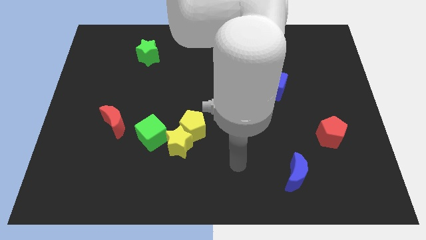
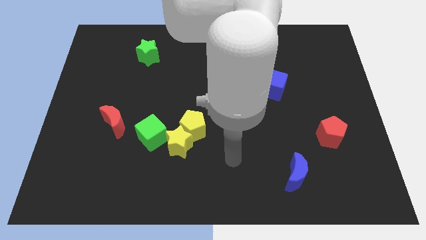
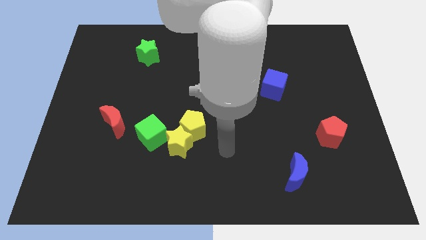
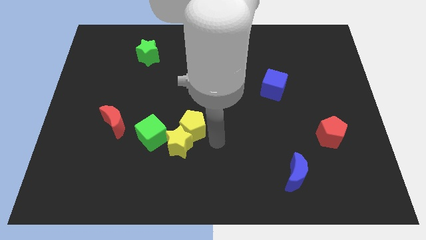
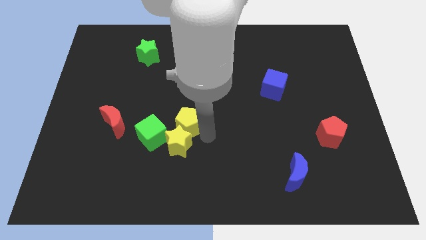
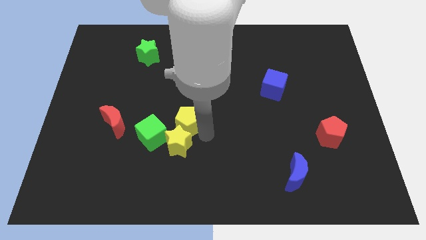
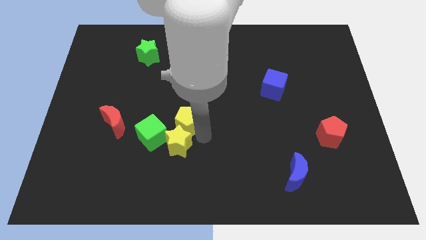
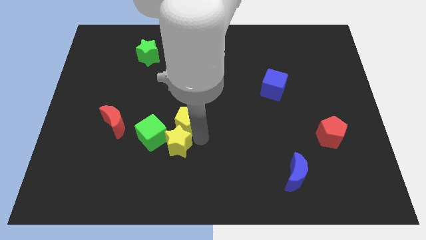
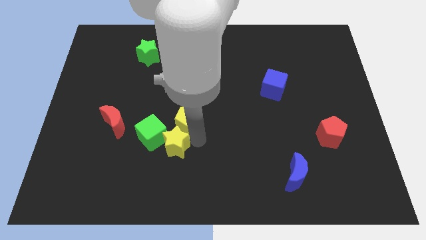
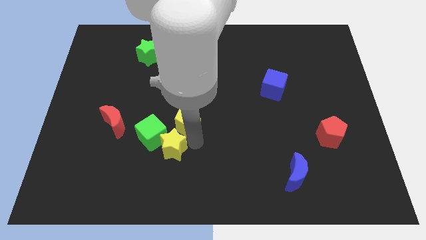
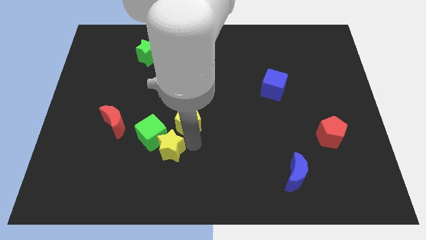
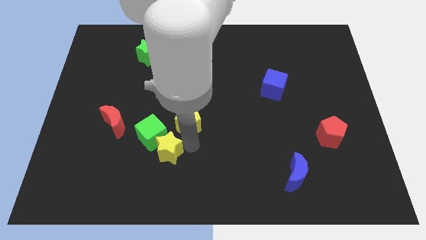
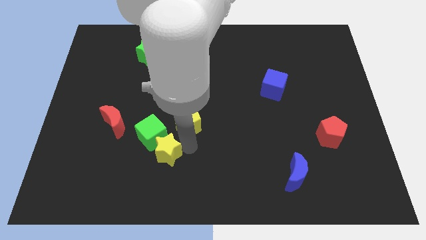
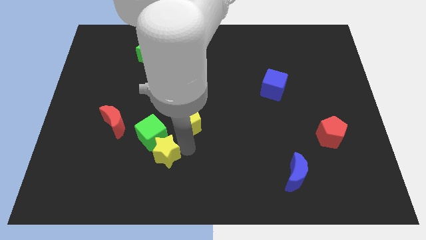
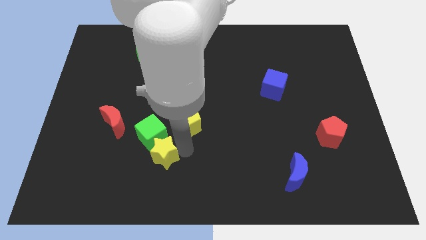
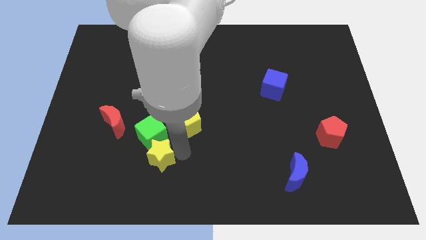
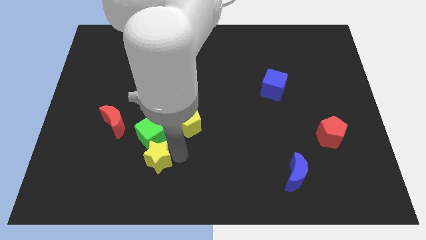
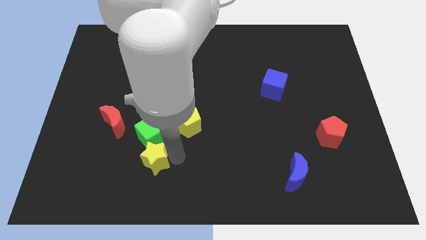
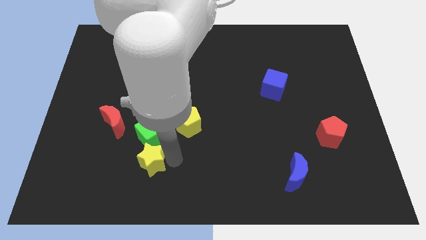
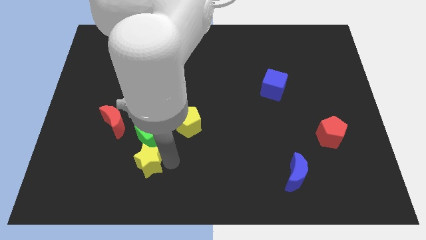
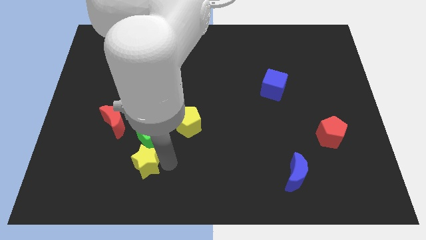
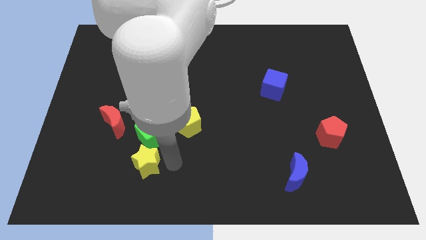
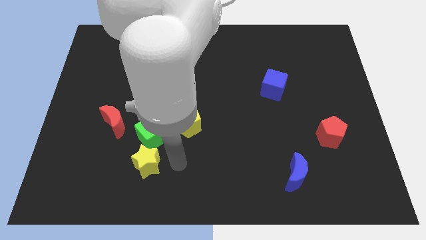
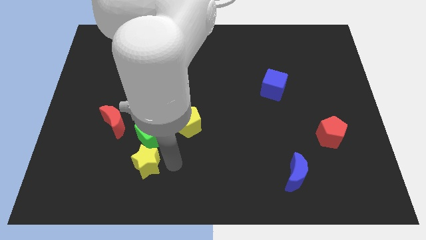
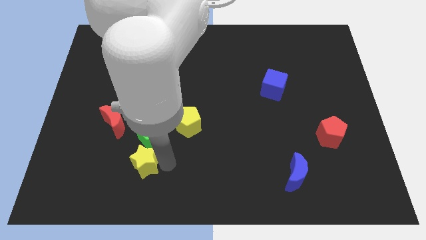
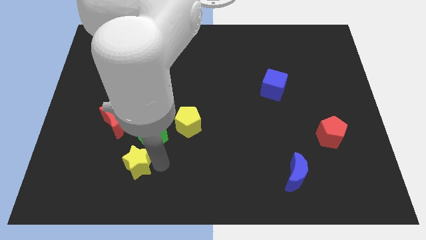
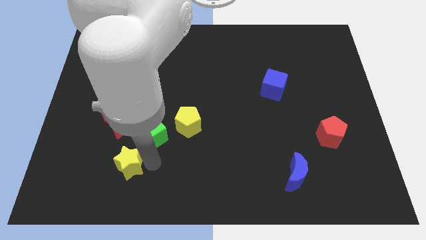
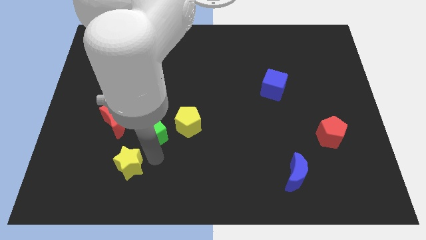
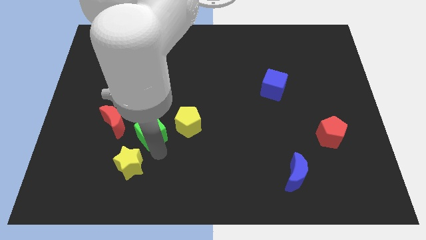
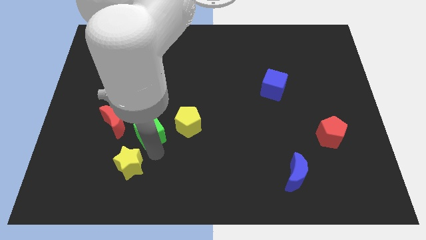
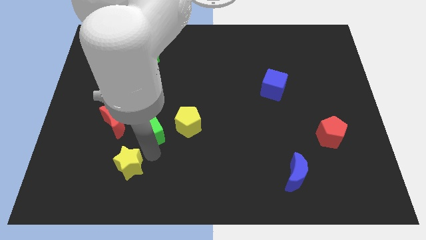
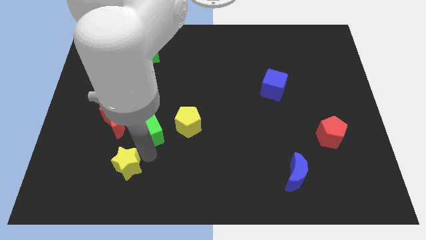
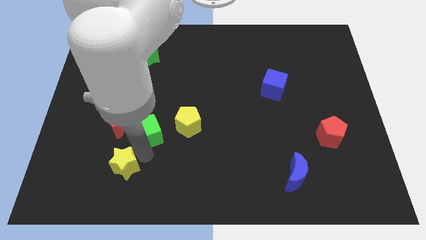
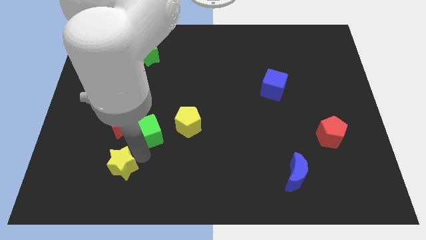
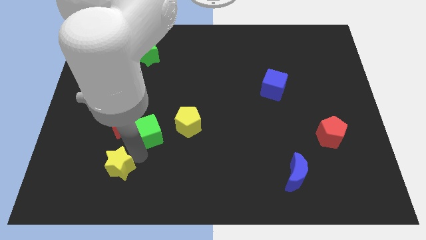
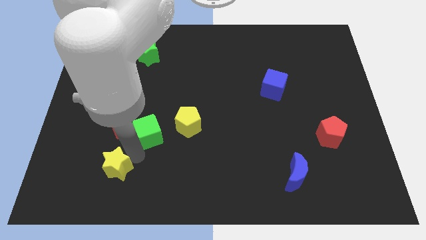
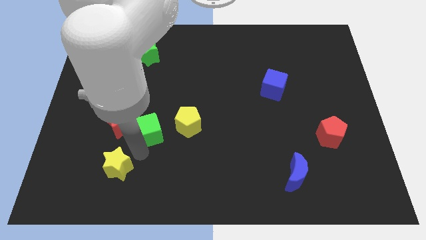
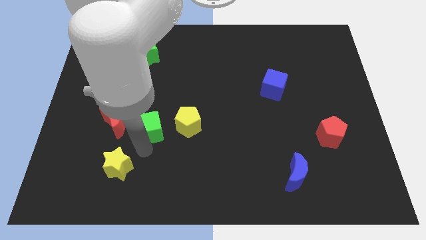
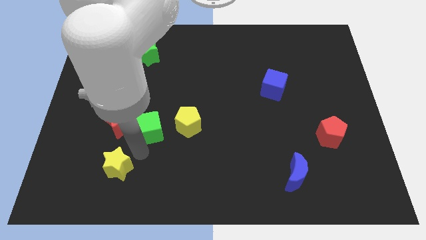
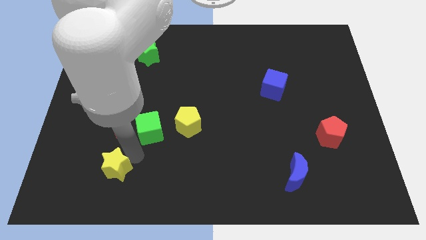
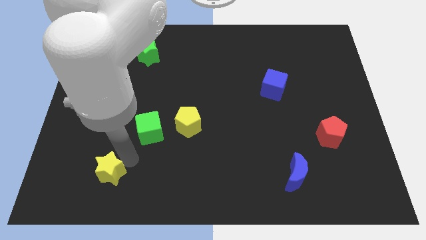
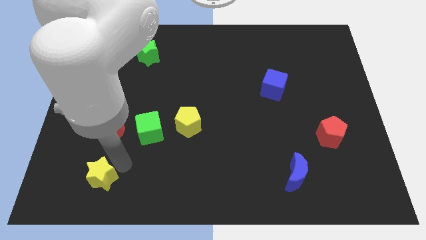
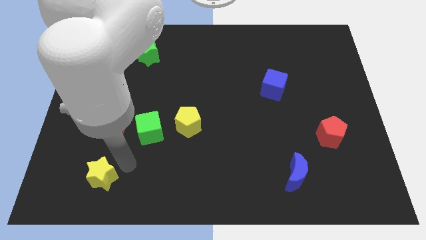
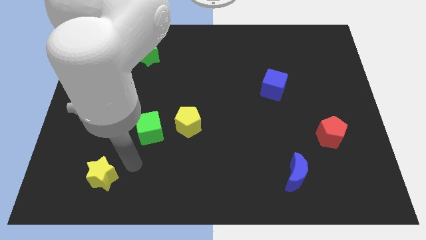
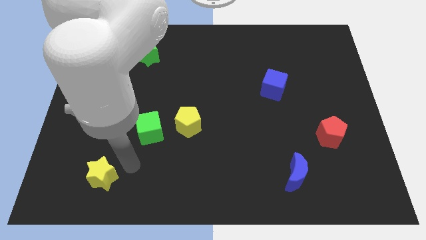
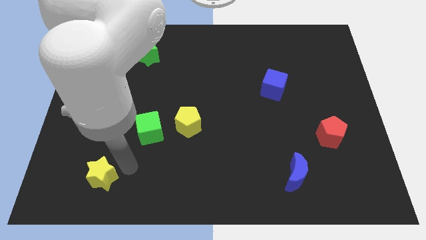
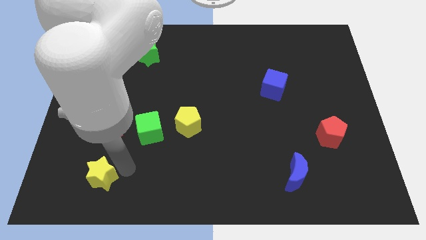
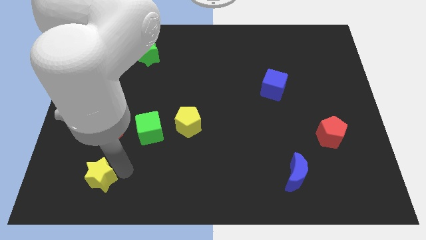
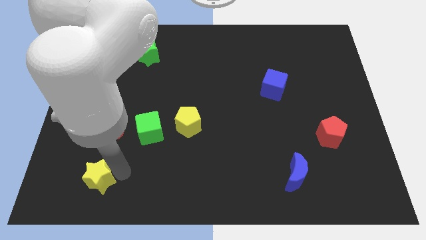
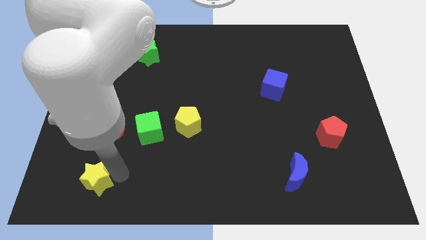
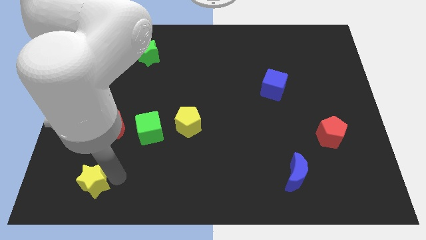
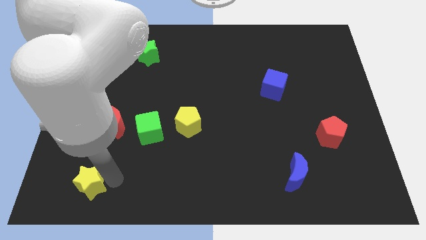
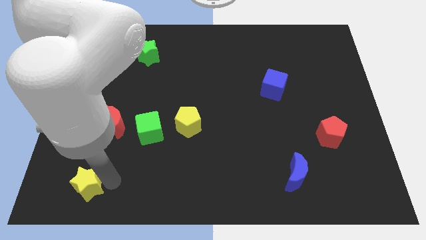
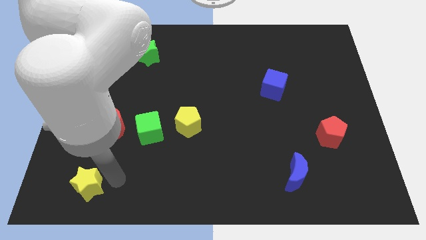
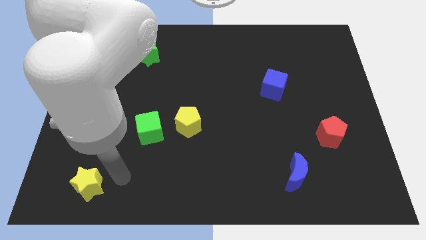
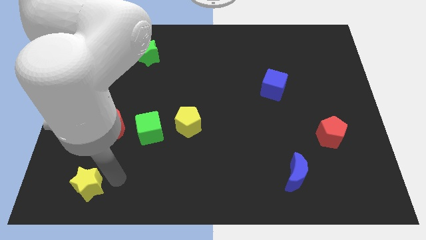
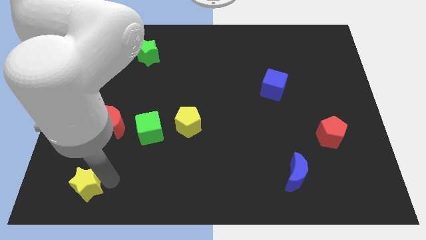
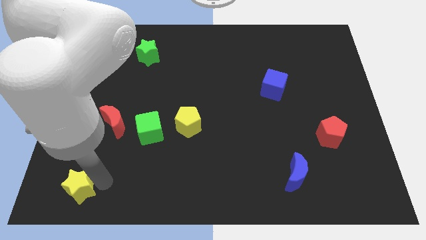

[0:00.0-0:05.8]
move the yellow star to the bottom left

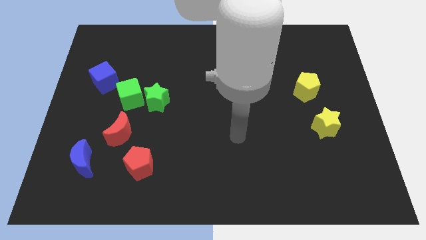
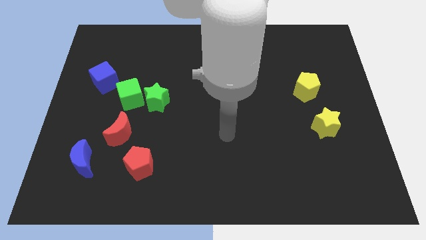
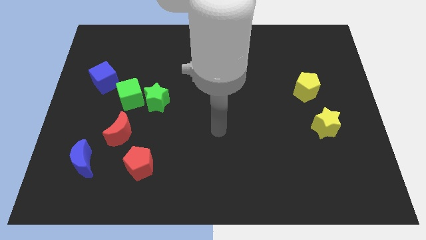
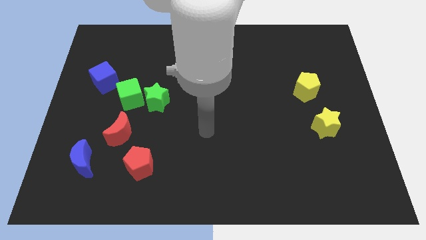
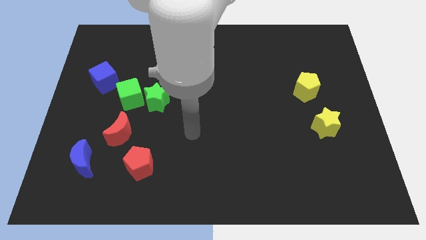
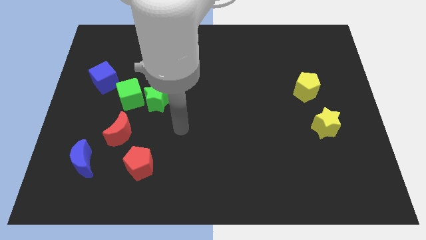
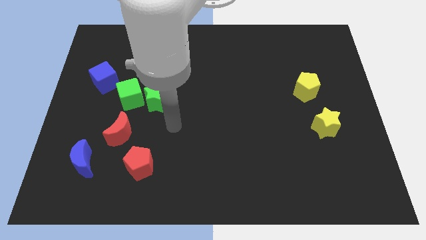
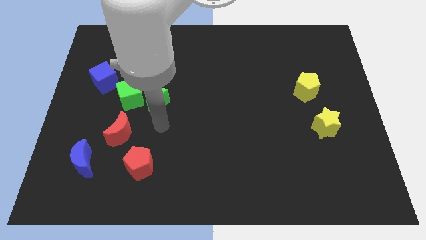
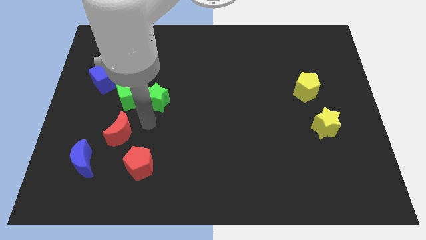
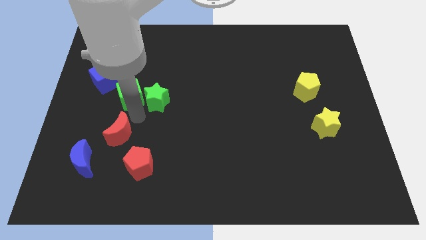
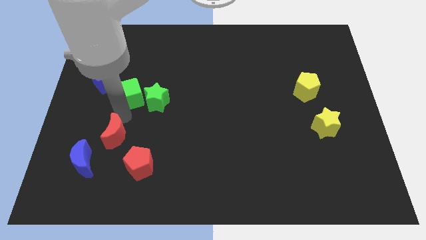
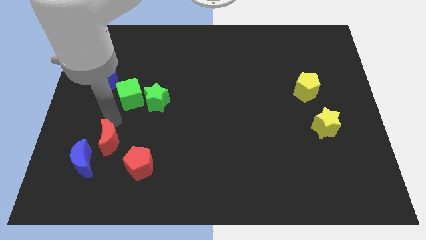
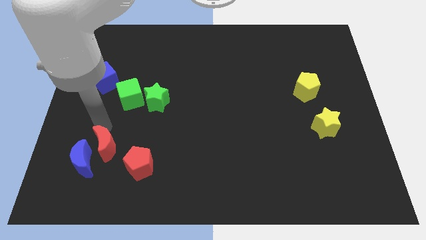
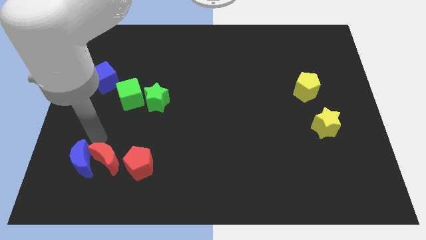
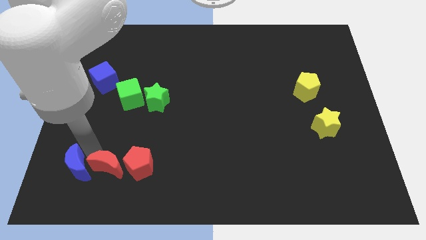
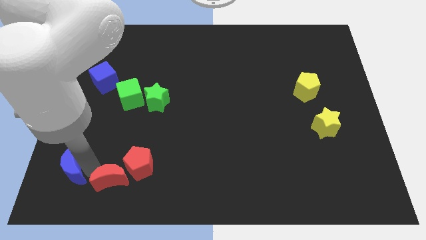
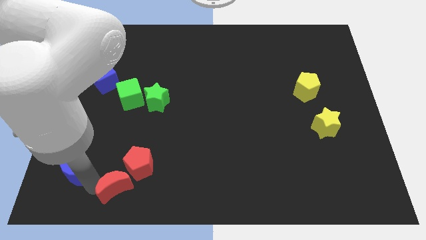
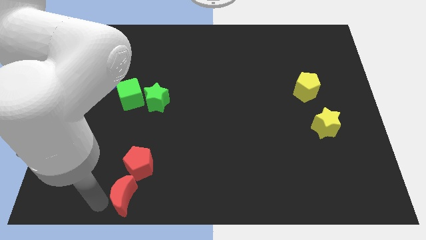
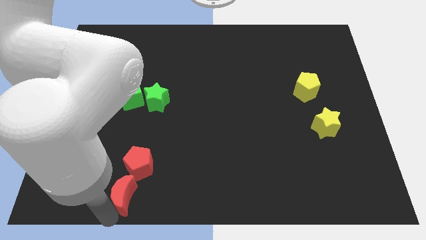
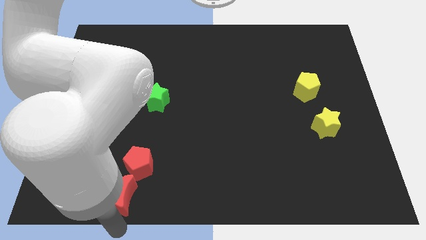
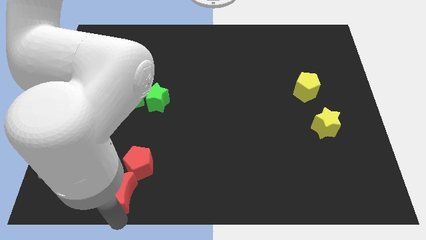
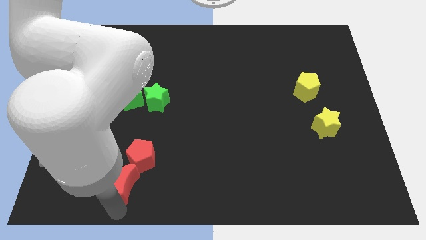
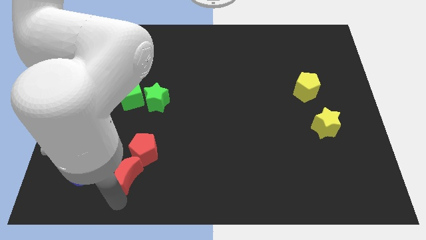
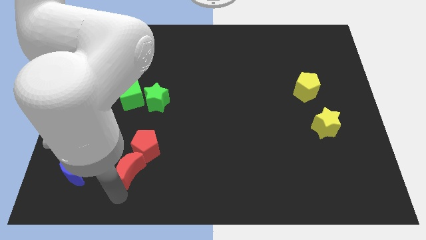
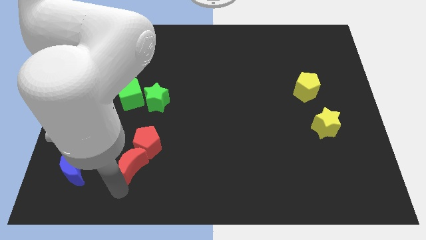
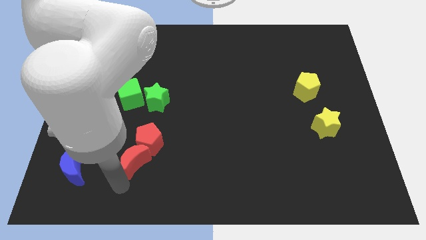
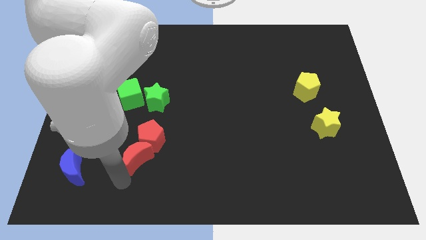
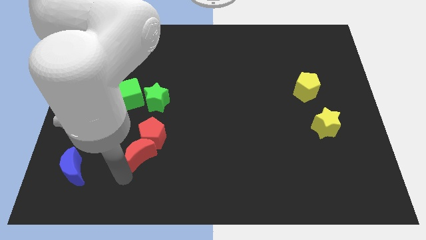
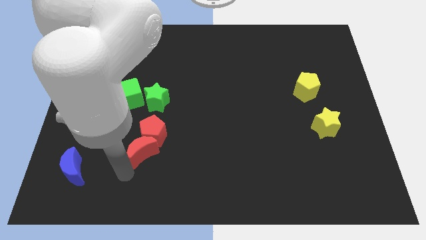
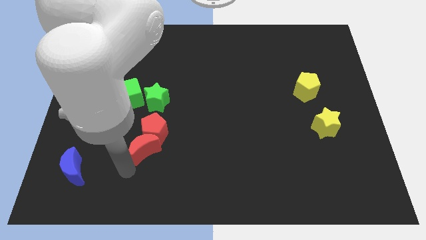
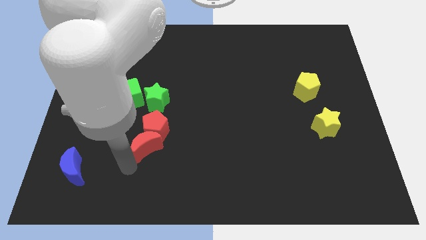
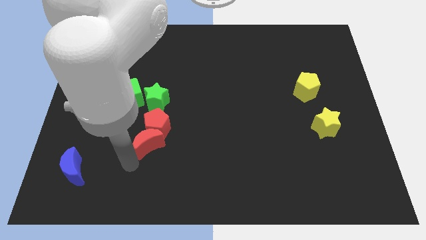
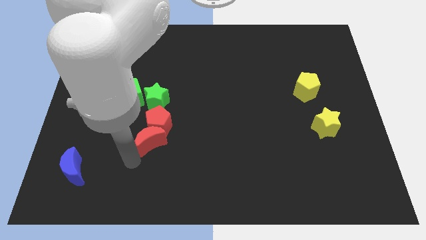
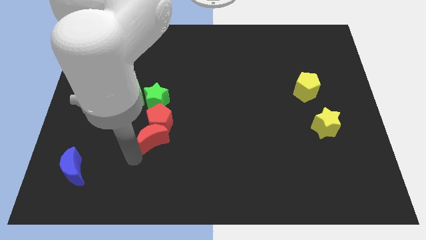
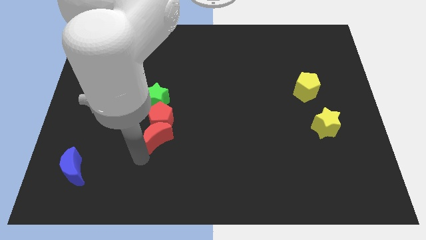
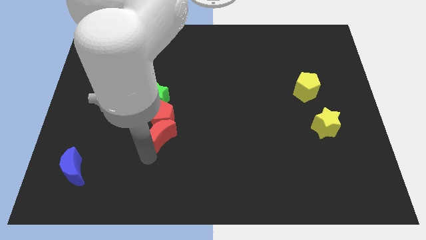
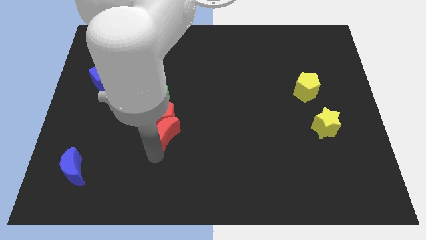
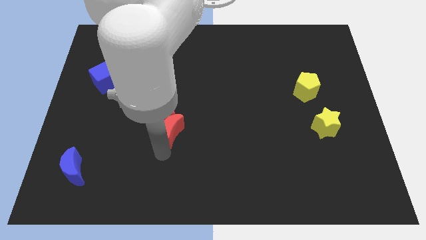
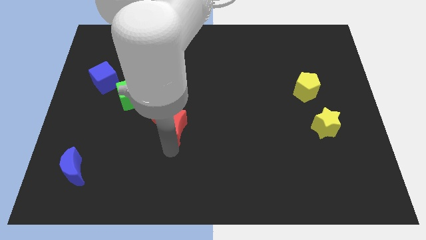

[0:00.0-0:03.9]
push the red moon to the middle
